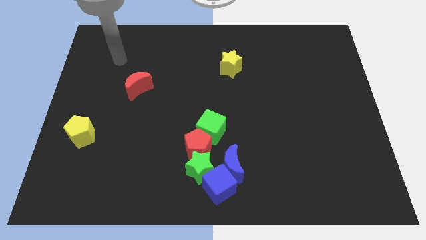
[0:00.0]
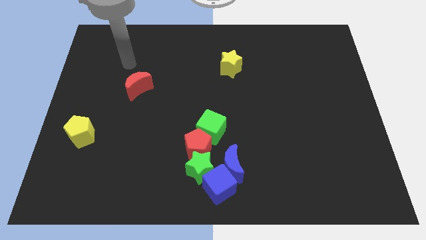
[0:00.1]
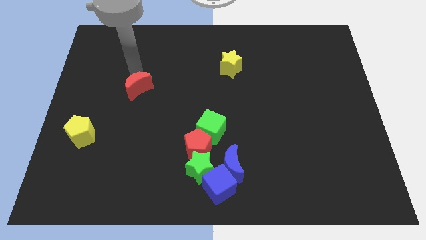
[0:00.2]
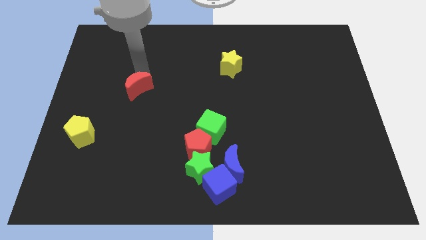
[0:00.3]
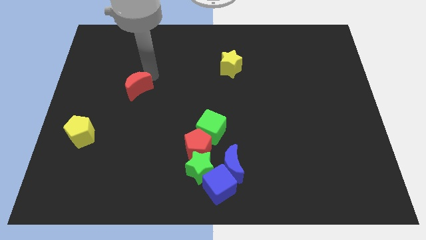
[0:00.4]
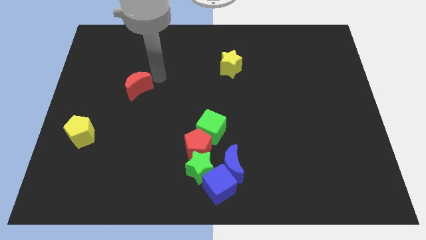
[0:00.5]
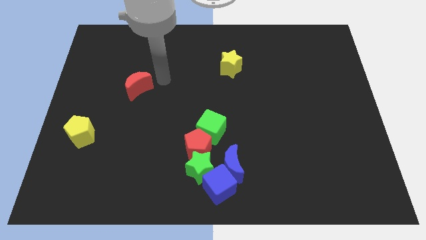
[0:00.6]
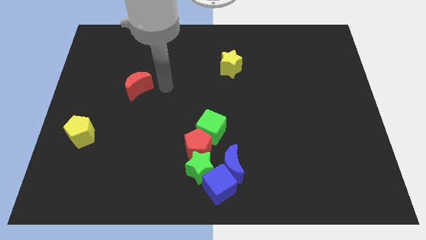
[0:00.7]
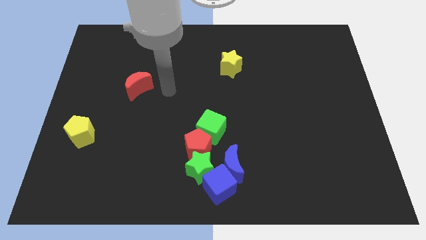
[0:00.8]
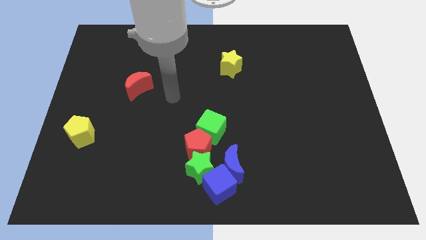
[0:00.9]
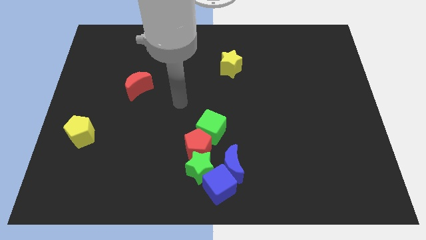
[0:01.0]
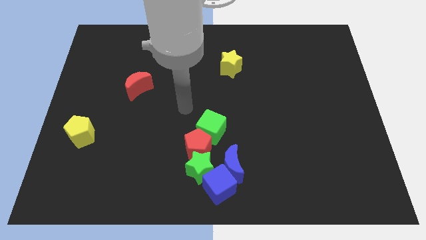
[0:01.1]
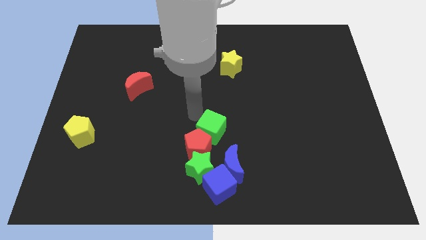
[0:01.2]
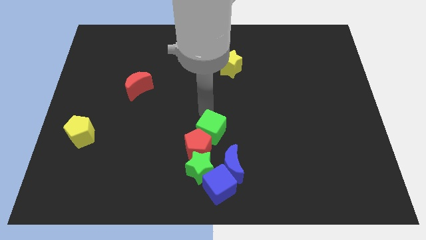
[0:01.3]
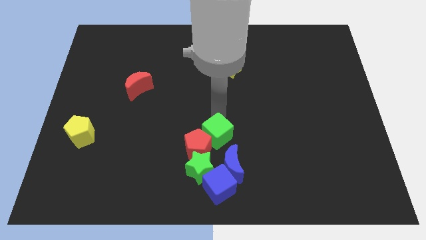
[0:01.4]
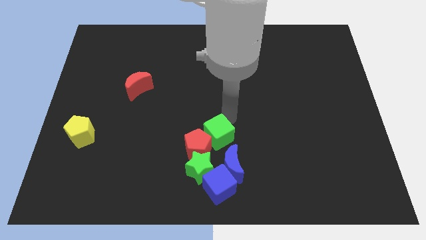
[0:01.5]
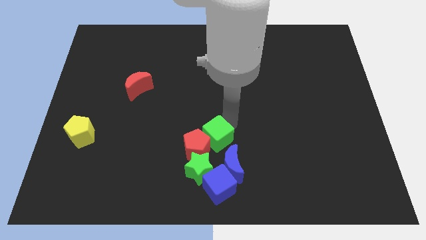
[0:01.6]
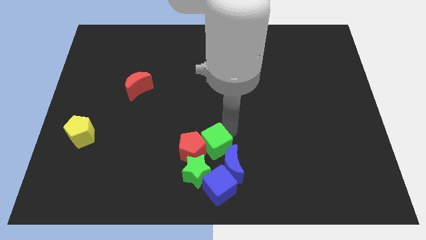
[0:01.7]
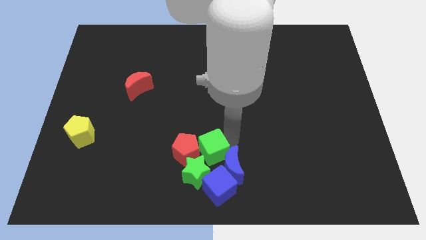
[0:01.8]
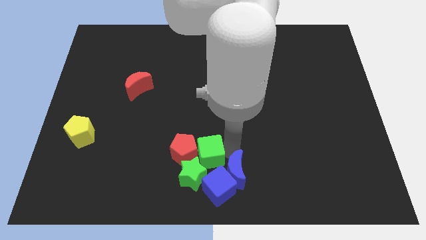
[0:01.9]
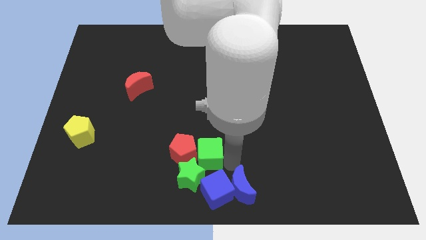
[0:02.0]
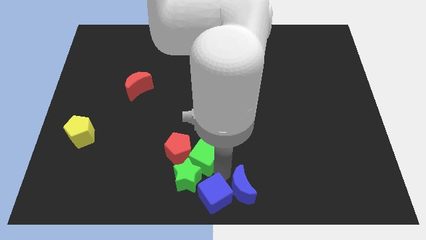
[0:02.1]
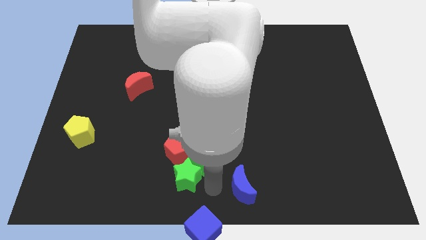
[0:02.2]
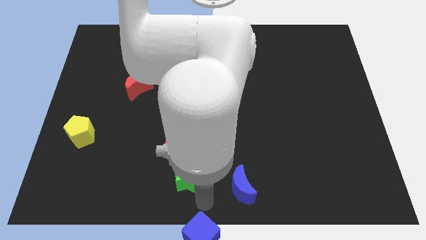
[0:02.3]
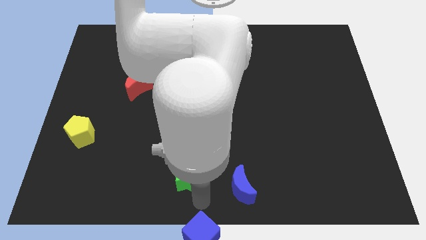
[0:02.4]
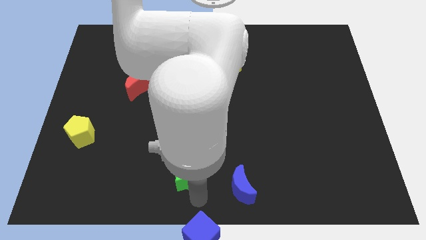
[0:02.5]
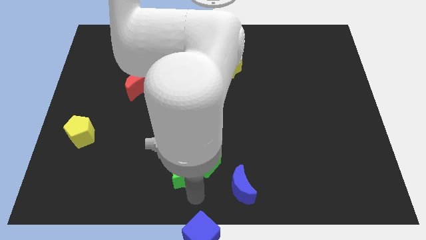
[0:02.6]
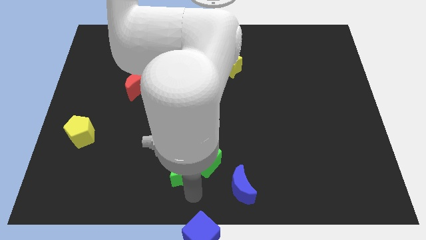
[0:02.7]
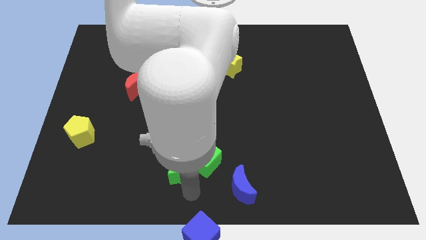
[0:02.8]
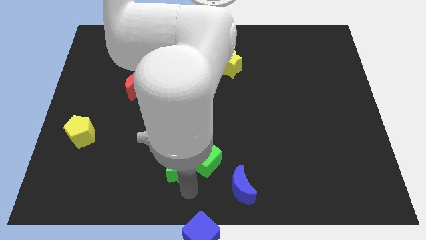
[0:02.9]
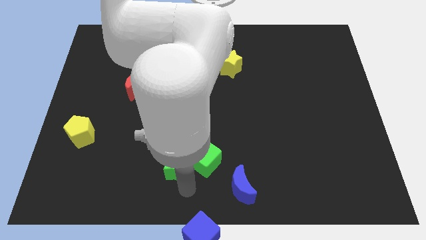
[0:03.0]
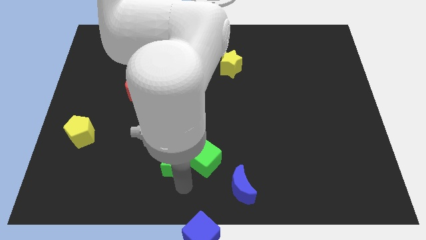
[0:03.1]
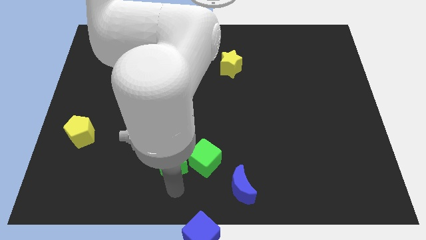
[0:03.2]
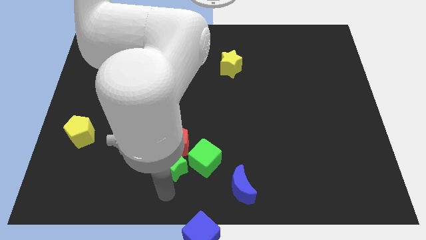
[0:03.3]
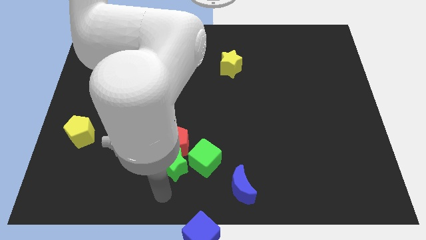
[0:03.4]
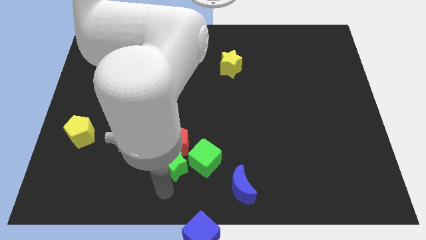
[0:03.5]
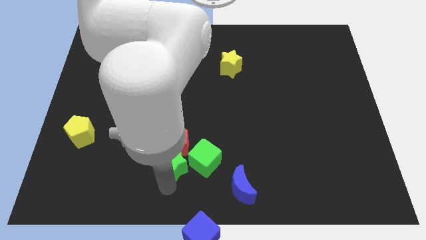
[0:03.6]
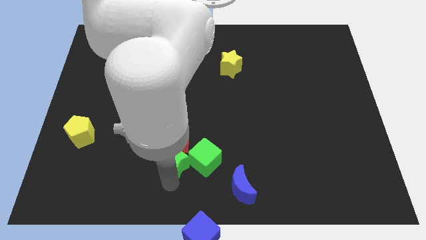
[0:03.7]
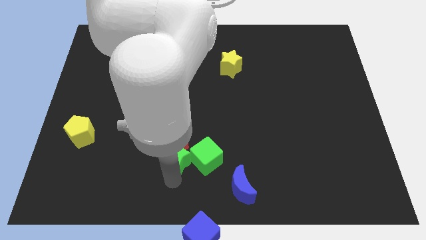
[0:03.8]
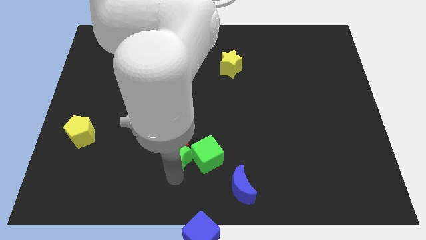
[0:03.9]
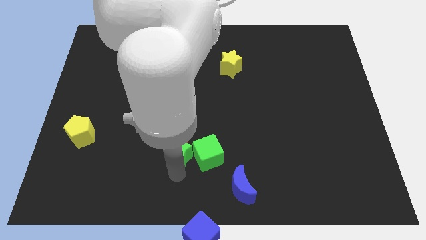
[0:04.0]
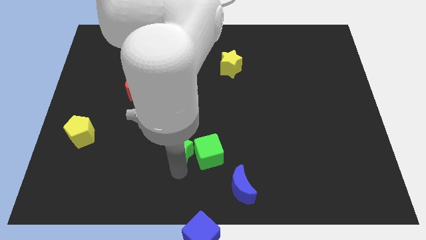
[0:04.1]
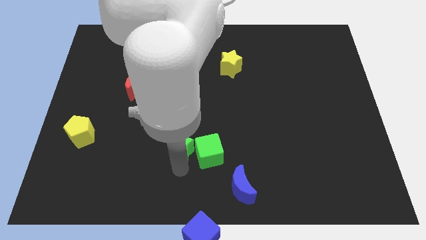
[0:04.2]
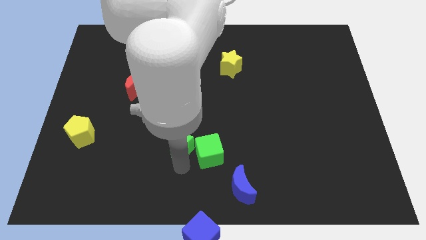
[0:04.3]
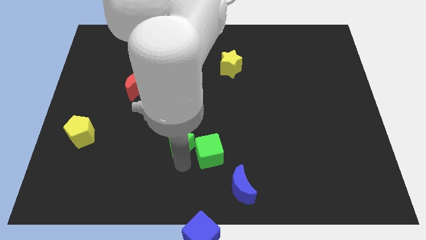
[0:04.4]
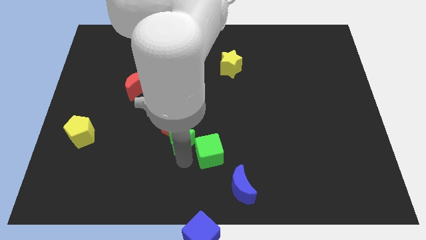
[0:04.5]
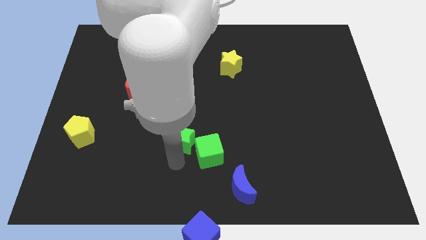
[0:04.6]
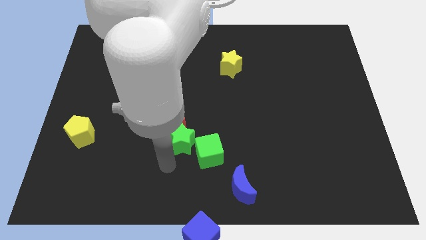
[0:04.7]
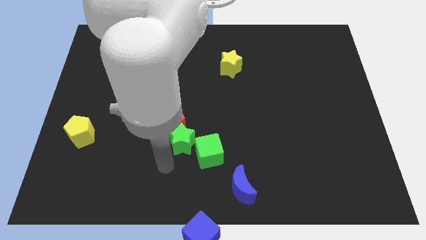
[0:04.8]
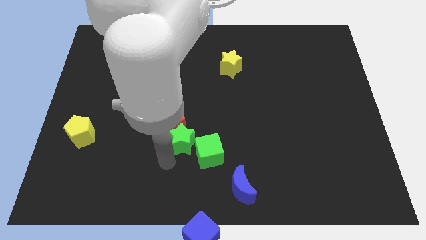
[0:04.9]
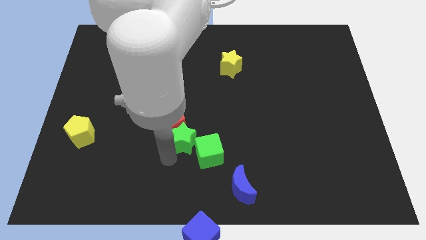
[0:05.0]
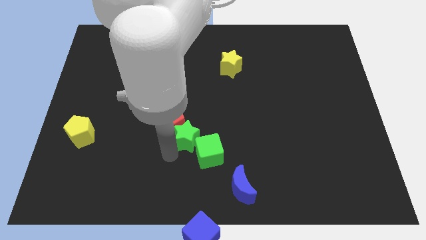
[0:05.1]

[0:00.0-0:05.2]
push the green star to the middle of the board

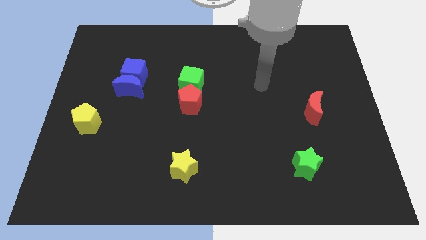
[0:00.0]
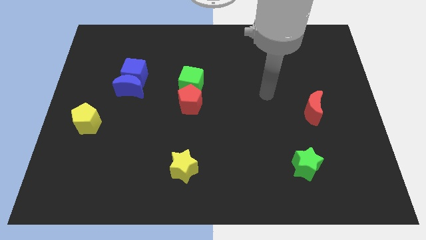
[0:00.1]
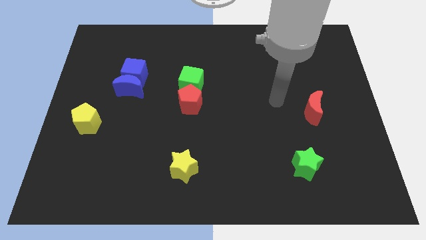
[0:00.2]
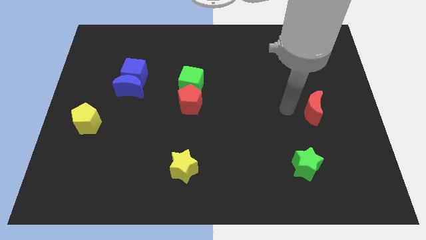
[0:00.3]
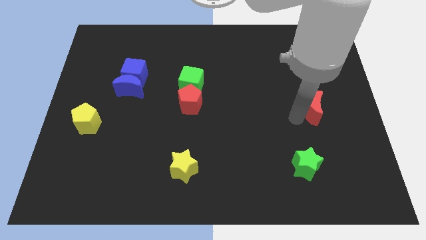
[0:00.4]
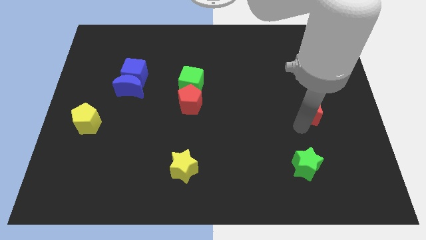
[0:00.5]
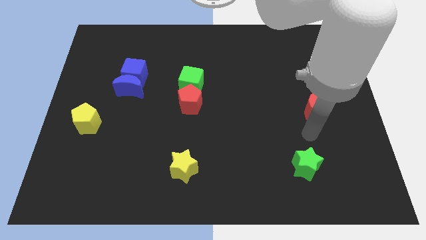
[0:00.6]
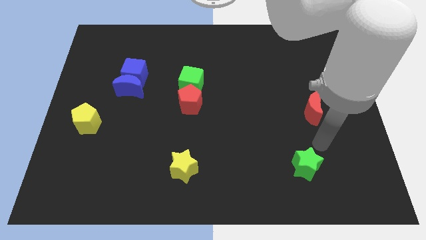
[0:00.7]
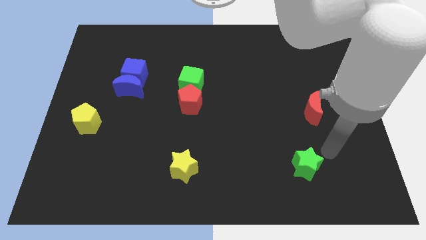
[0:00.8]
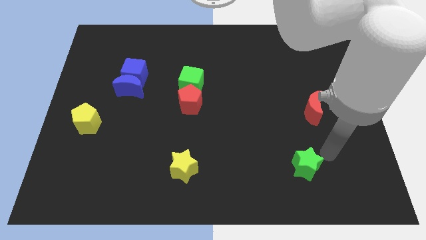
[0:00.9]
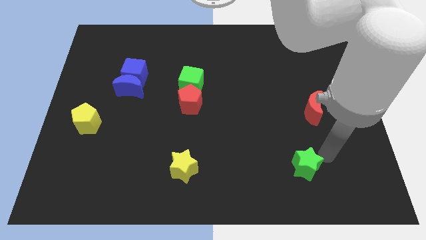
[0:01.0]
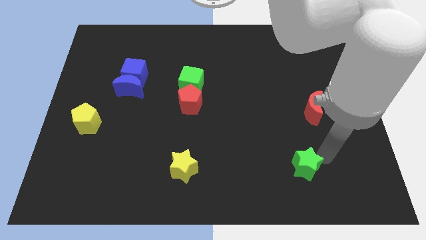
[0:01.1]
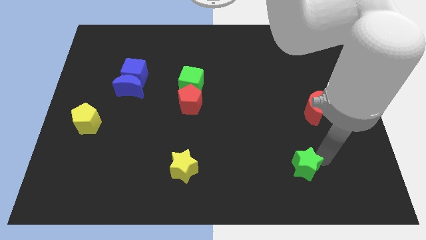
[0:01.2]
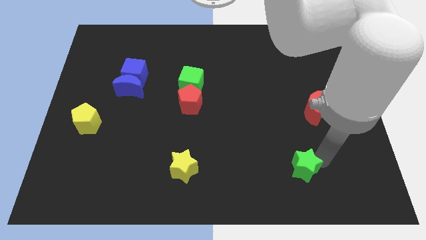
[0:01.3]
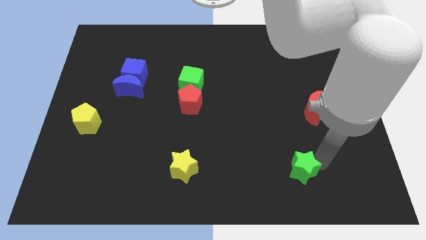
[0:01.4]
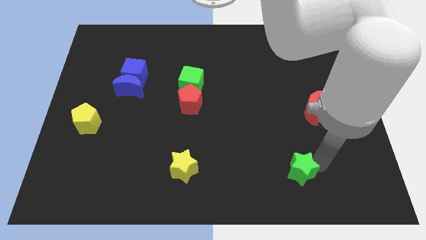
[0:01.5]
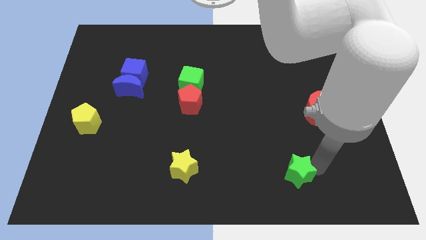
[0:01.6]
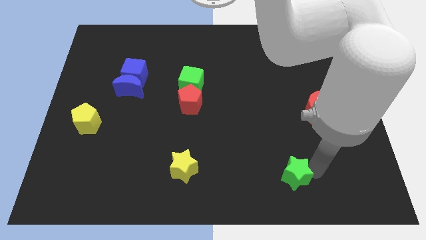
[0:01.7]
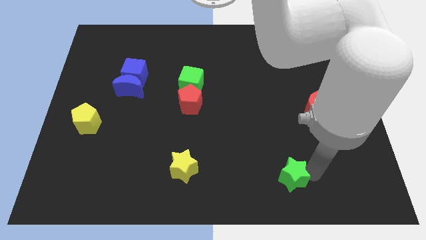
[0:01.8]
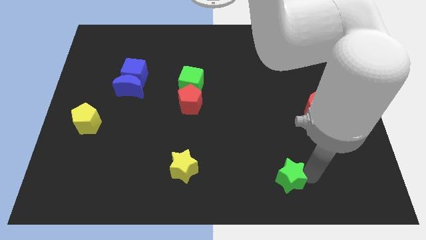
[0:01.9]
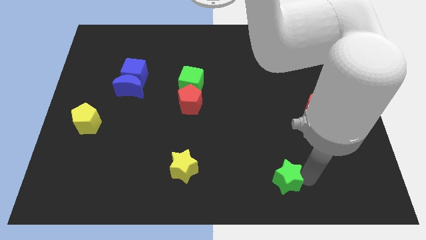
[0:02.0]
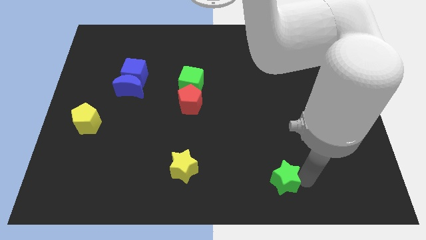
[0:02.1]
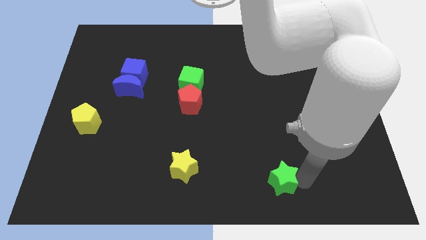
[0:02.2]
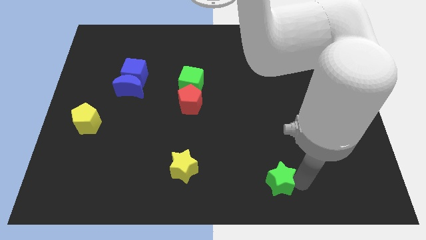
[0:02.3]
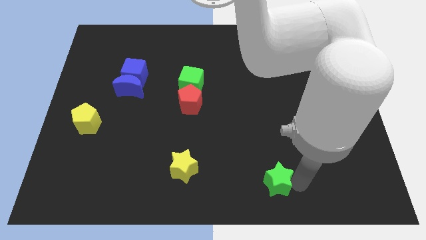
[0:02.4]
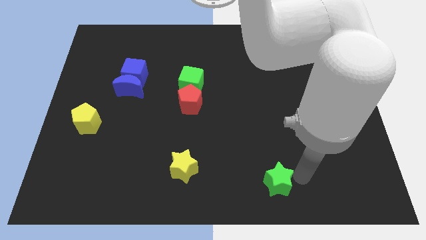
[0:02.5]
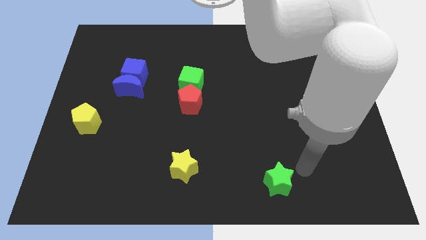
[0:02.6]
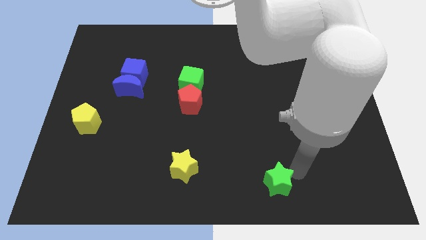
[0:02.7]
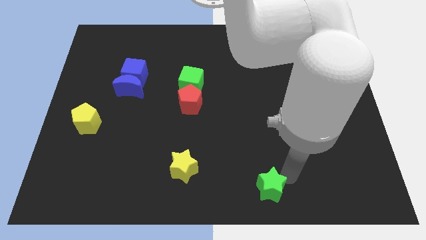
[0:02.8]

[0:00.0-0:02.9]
slide the green star to the bottom side
